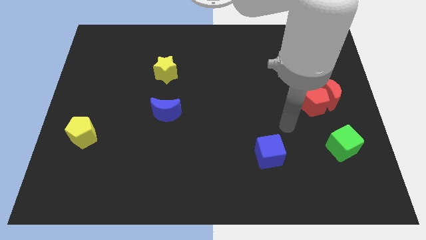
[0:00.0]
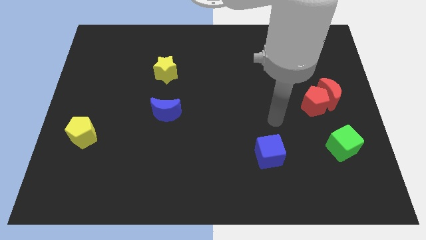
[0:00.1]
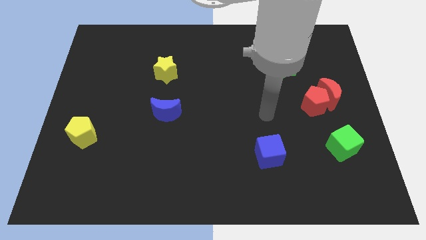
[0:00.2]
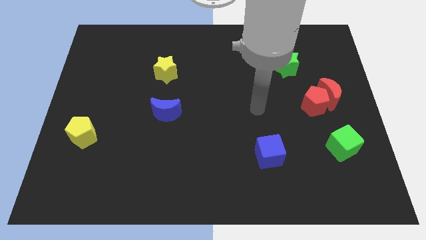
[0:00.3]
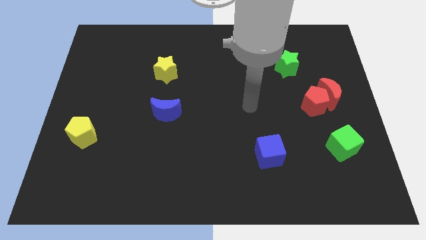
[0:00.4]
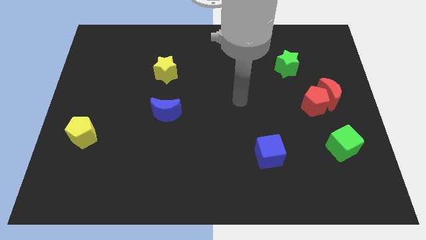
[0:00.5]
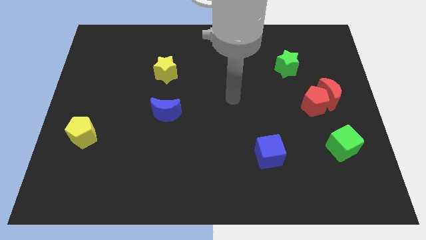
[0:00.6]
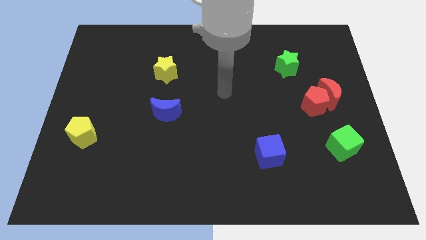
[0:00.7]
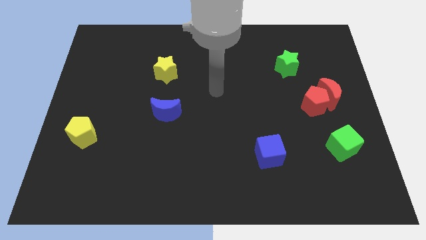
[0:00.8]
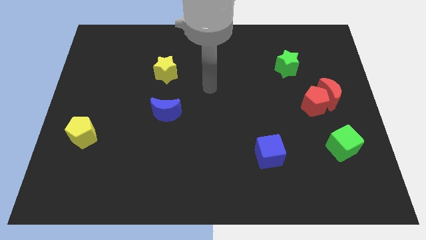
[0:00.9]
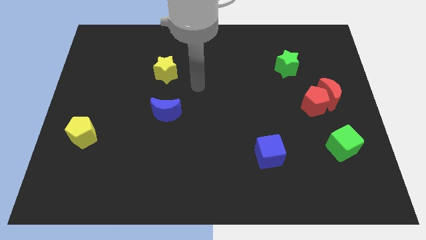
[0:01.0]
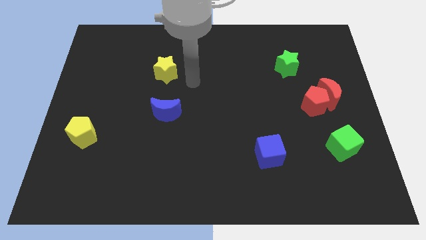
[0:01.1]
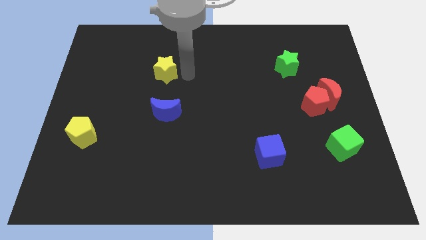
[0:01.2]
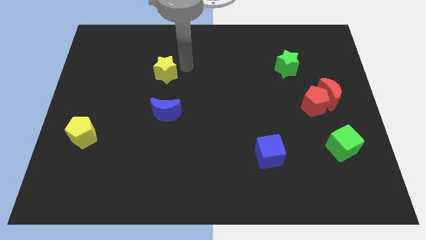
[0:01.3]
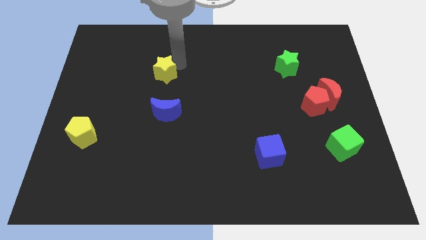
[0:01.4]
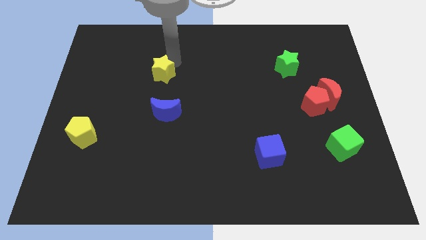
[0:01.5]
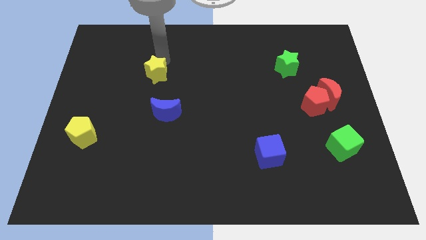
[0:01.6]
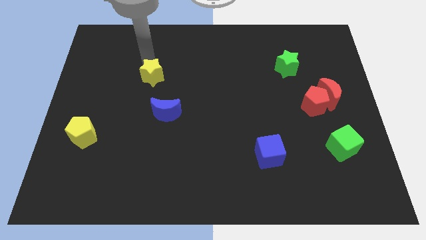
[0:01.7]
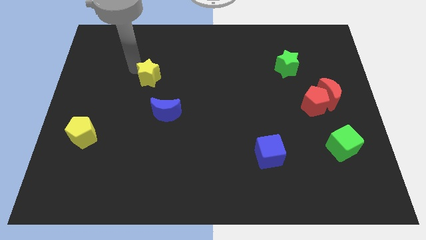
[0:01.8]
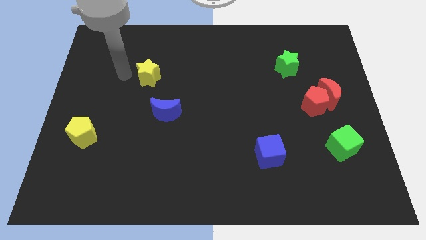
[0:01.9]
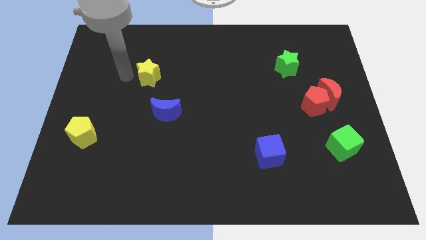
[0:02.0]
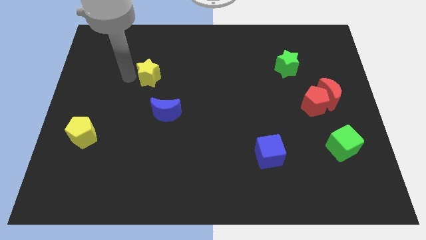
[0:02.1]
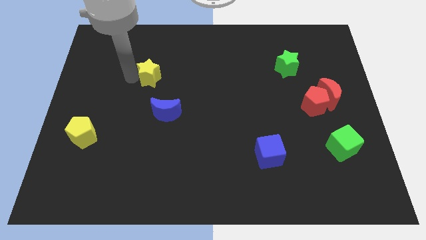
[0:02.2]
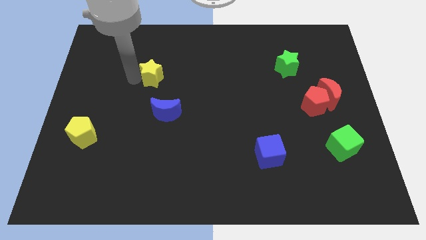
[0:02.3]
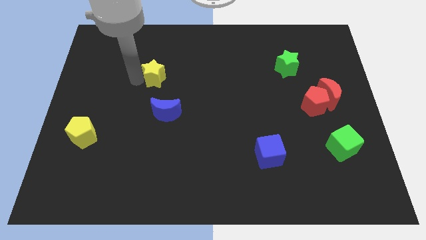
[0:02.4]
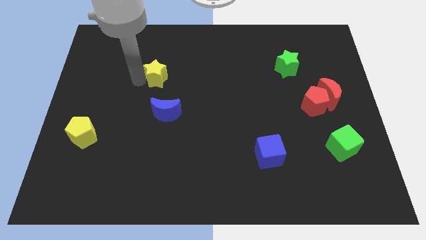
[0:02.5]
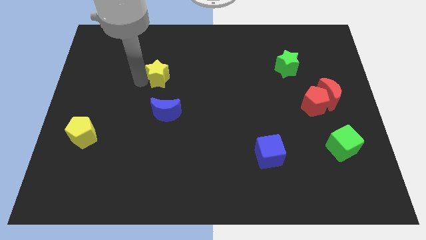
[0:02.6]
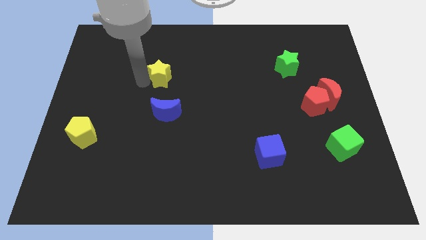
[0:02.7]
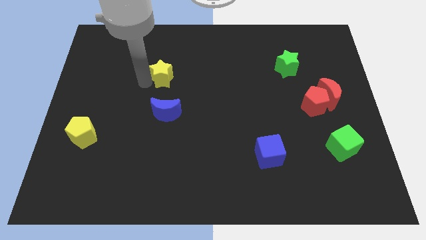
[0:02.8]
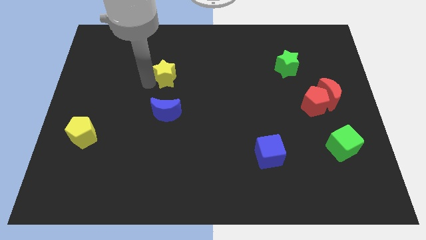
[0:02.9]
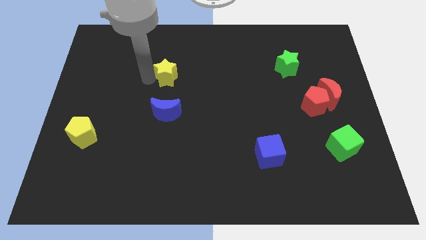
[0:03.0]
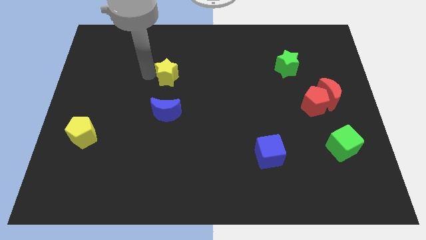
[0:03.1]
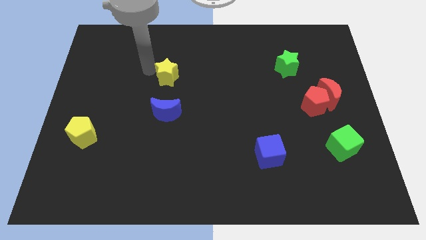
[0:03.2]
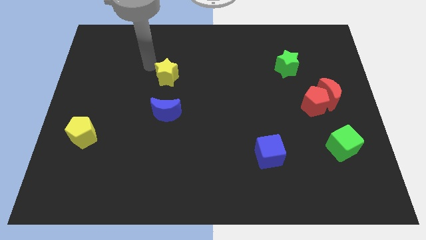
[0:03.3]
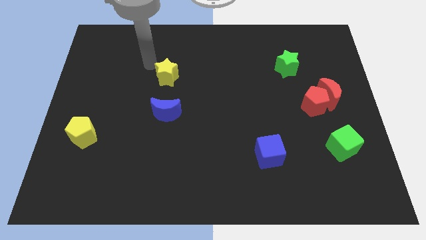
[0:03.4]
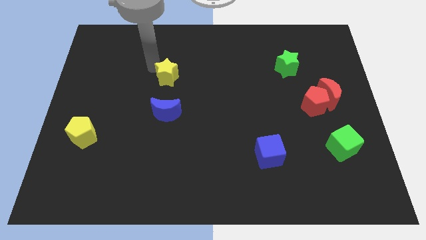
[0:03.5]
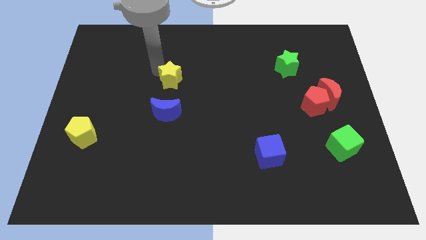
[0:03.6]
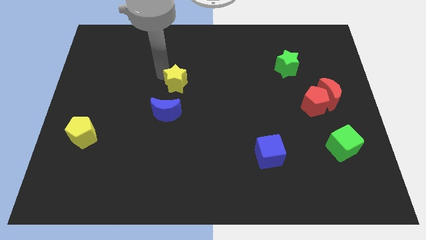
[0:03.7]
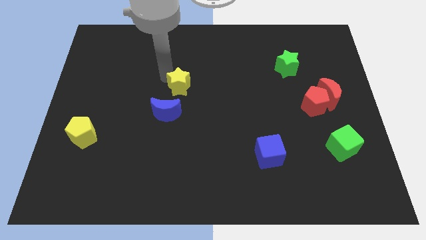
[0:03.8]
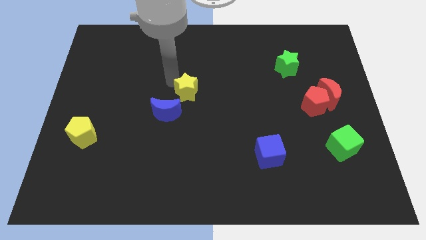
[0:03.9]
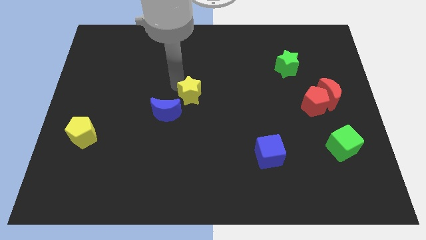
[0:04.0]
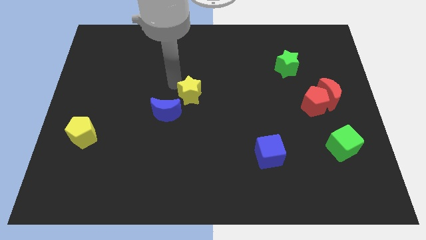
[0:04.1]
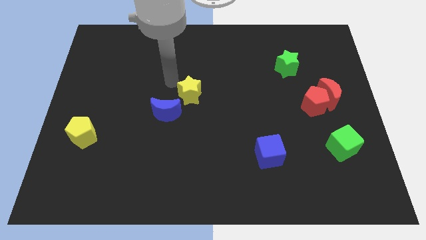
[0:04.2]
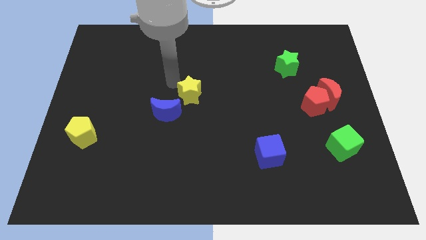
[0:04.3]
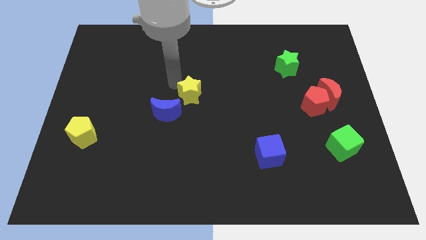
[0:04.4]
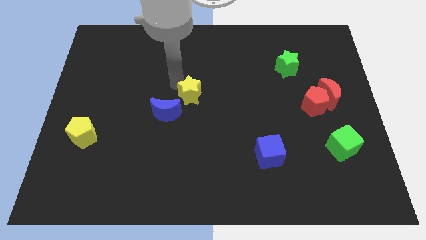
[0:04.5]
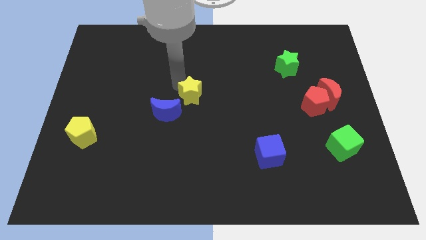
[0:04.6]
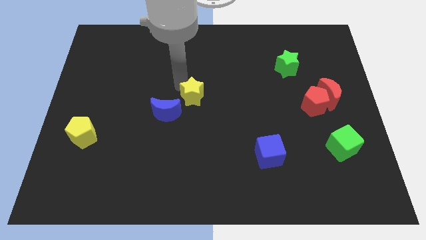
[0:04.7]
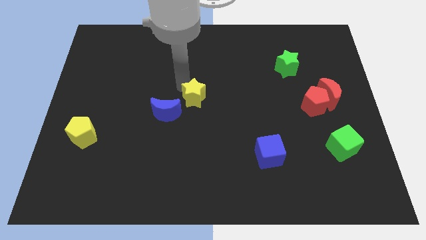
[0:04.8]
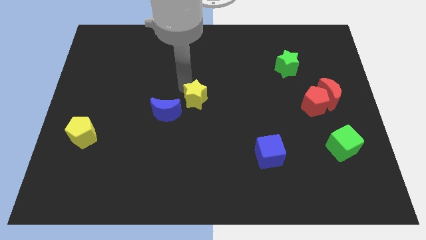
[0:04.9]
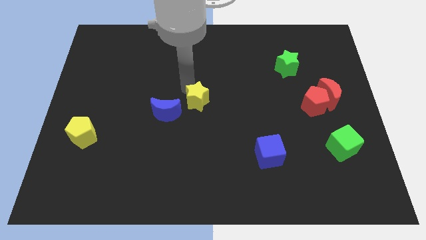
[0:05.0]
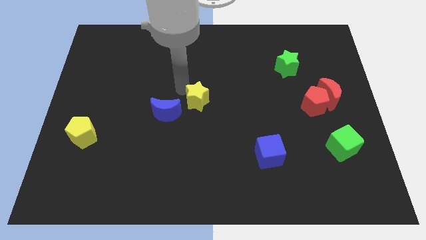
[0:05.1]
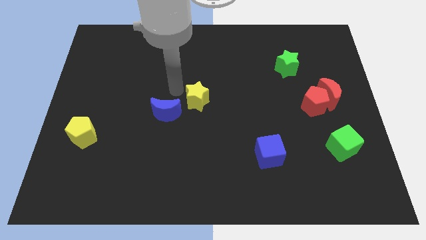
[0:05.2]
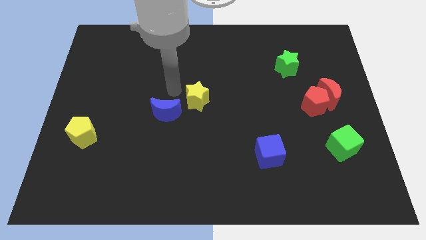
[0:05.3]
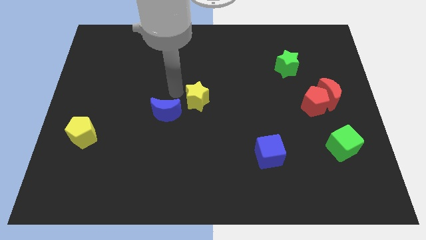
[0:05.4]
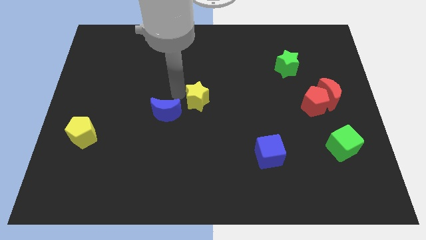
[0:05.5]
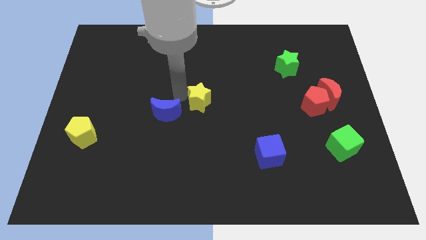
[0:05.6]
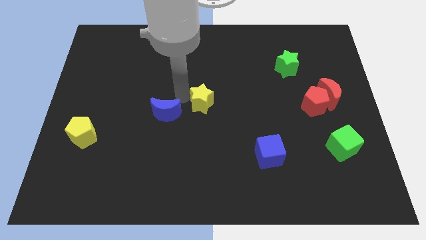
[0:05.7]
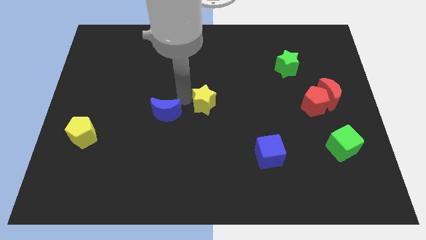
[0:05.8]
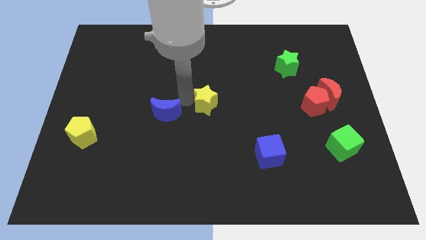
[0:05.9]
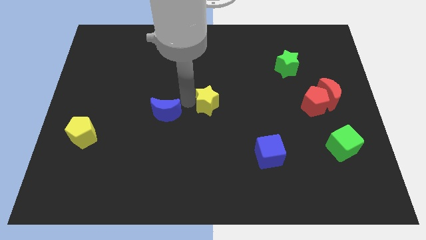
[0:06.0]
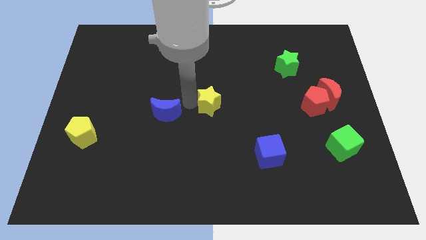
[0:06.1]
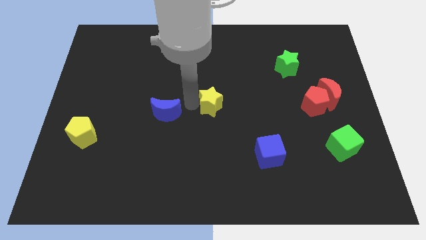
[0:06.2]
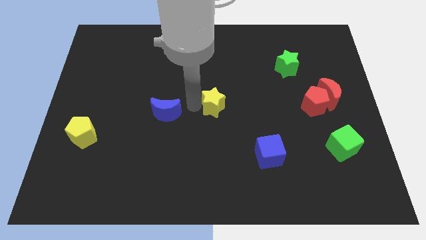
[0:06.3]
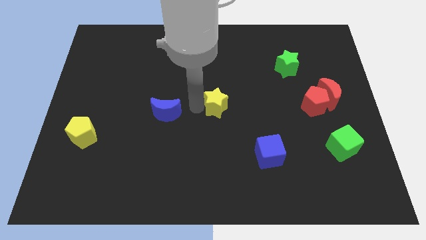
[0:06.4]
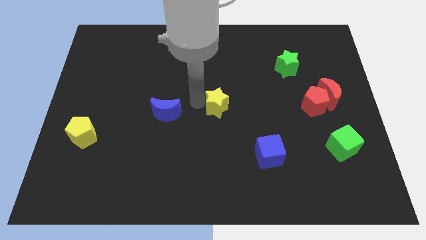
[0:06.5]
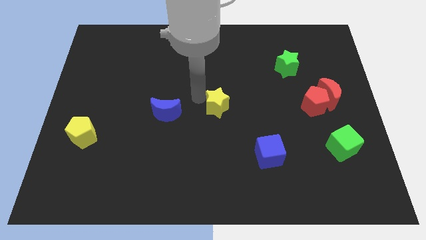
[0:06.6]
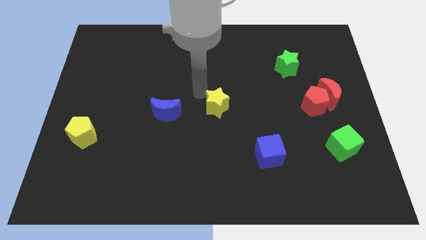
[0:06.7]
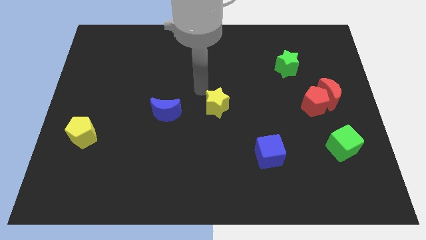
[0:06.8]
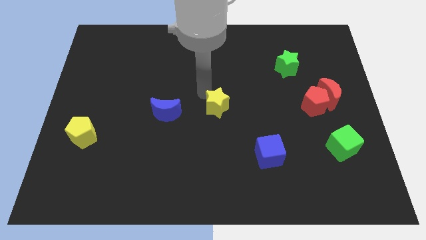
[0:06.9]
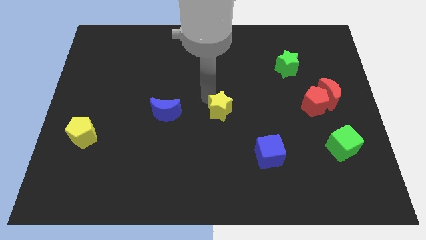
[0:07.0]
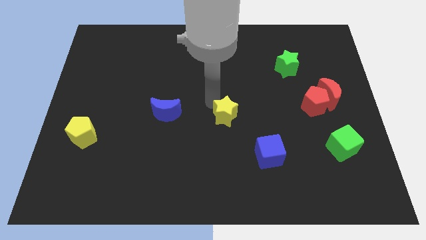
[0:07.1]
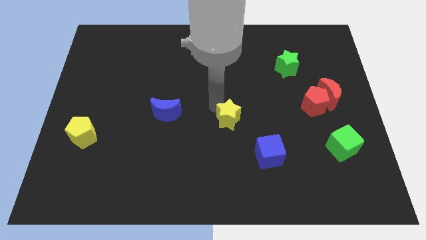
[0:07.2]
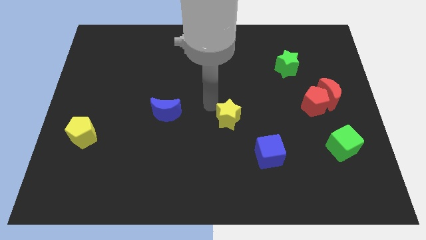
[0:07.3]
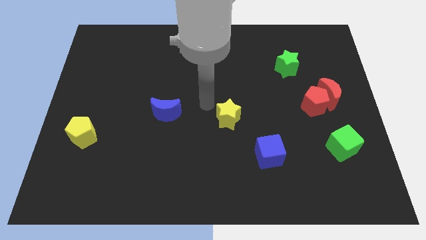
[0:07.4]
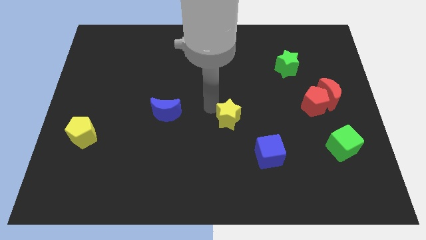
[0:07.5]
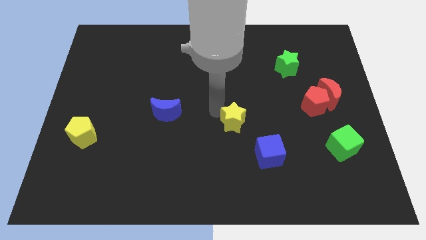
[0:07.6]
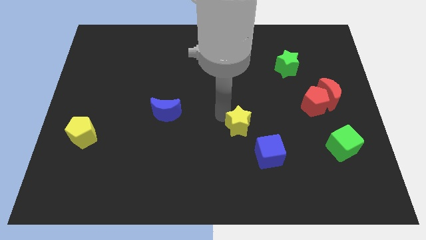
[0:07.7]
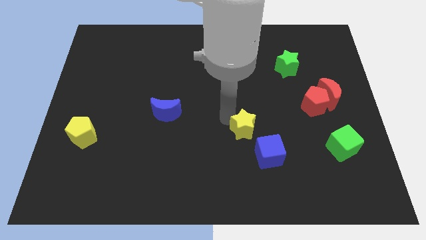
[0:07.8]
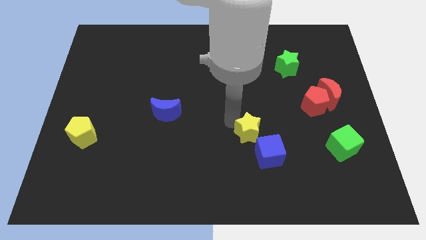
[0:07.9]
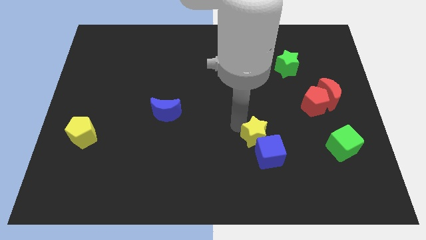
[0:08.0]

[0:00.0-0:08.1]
put the yellow star close to the blue cube
